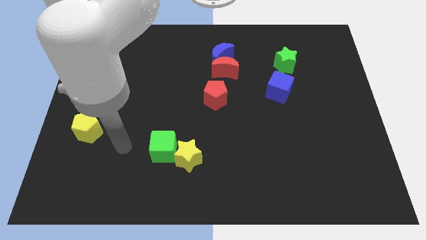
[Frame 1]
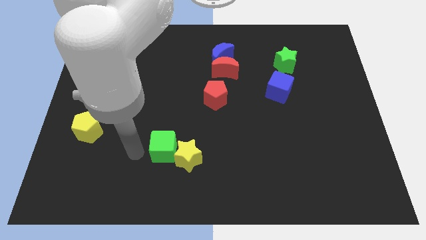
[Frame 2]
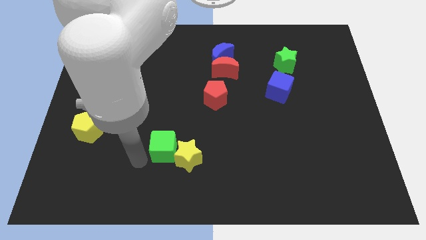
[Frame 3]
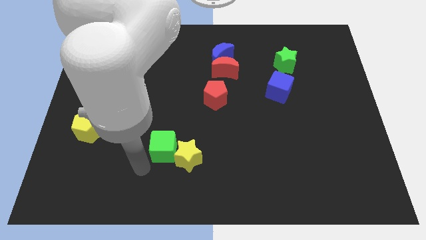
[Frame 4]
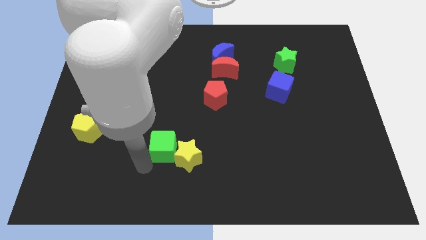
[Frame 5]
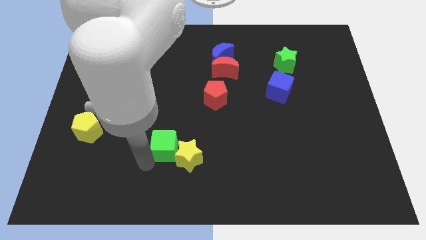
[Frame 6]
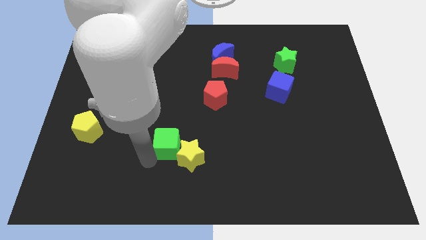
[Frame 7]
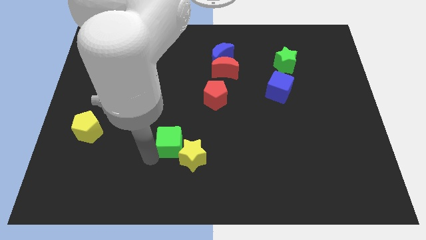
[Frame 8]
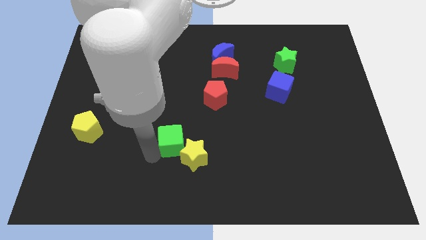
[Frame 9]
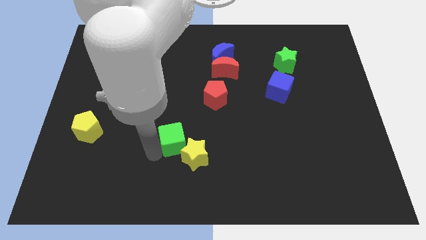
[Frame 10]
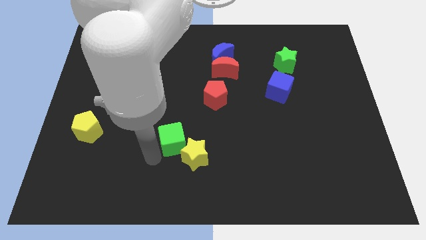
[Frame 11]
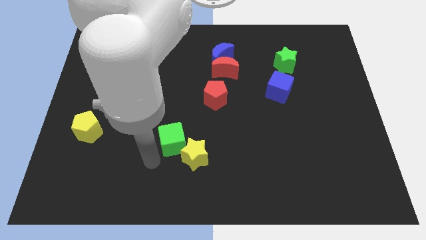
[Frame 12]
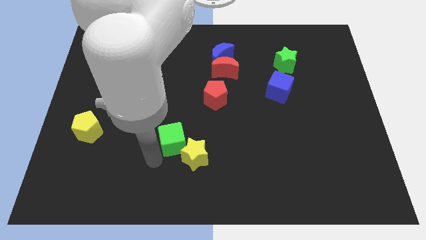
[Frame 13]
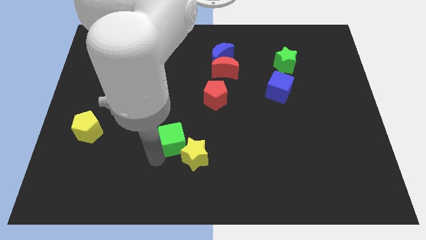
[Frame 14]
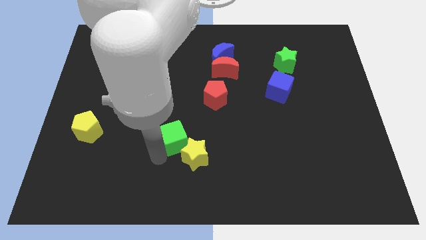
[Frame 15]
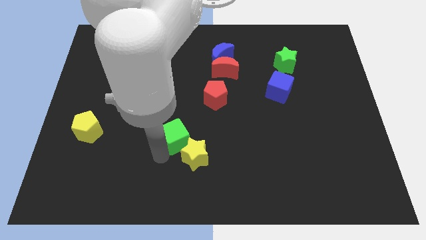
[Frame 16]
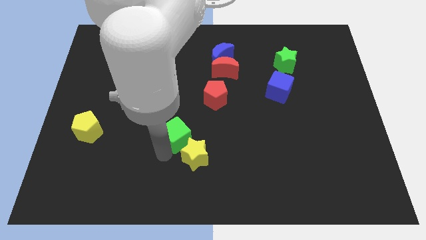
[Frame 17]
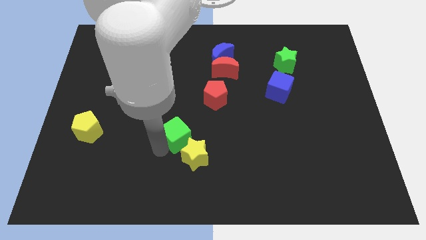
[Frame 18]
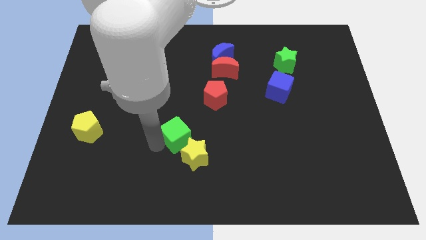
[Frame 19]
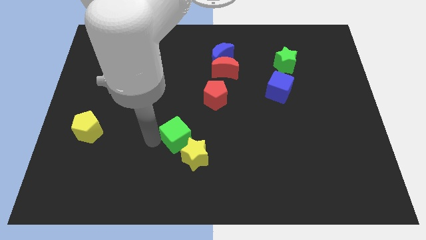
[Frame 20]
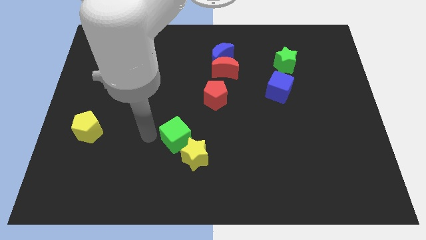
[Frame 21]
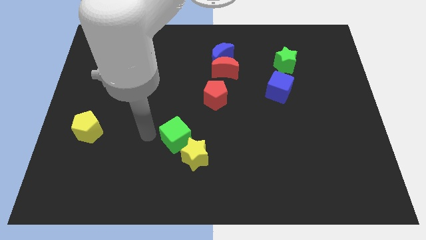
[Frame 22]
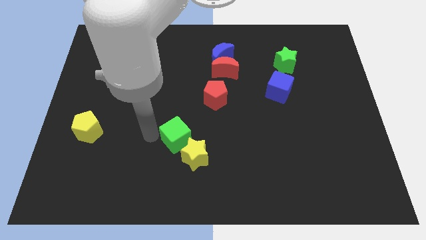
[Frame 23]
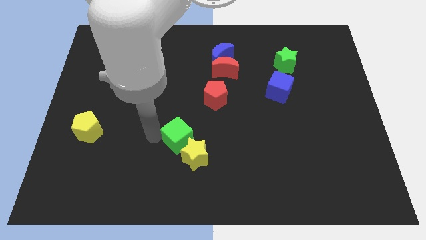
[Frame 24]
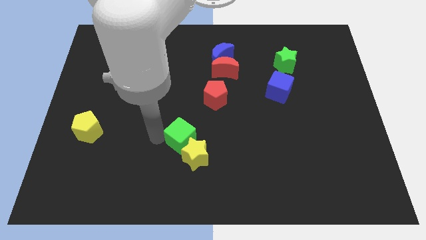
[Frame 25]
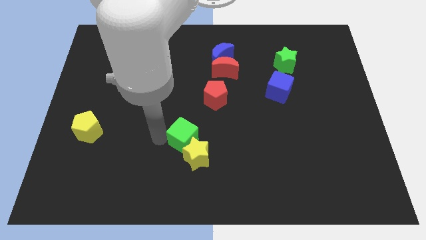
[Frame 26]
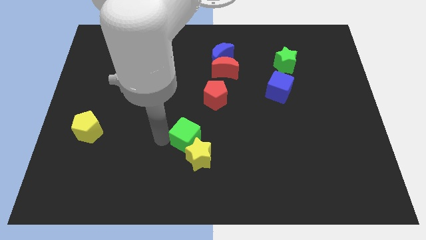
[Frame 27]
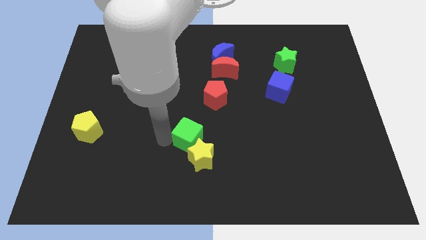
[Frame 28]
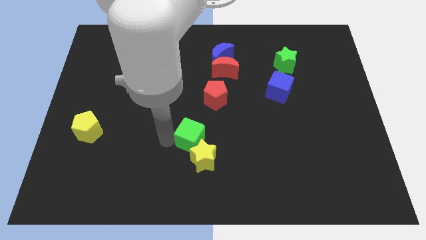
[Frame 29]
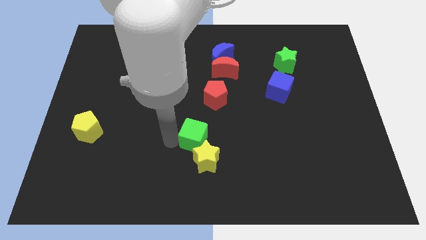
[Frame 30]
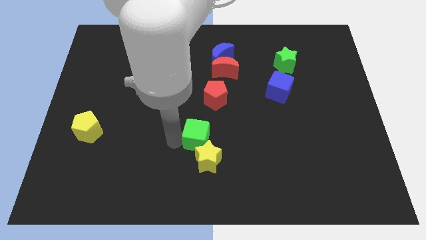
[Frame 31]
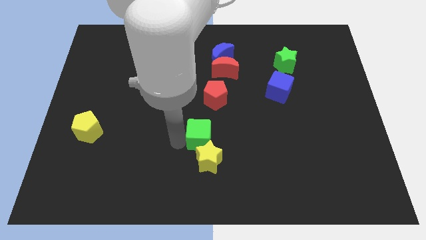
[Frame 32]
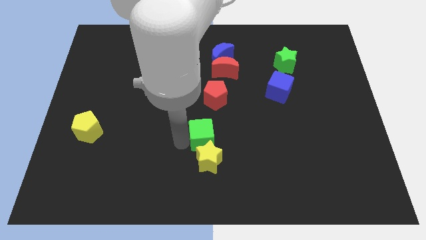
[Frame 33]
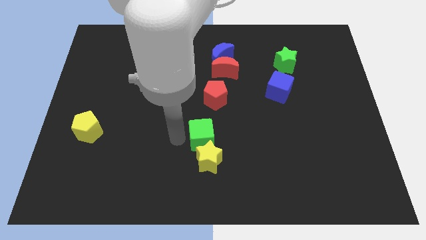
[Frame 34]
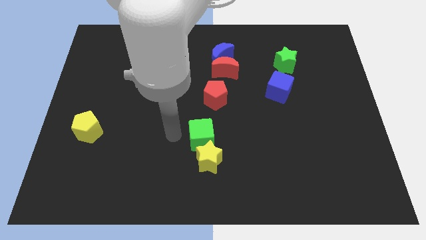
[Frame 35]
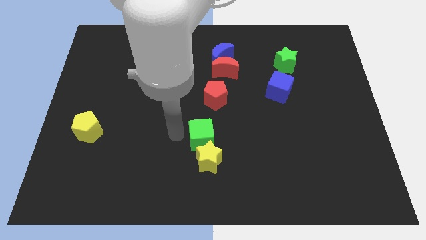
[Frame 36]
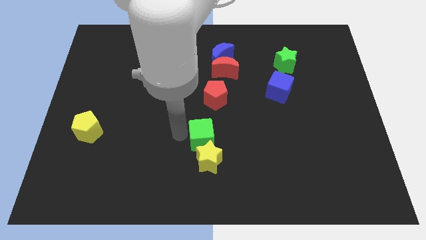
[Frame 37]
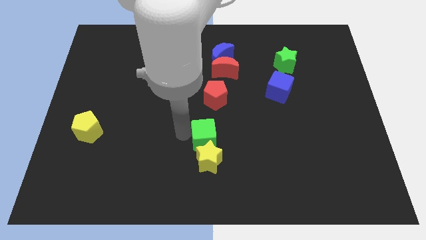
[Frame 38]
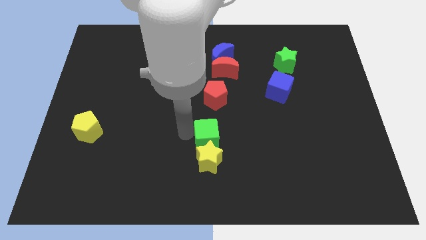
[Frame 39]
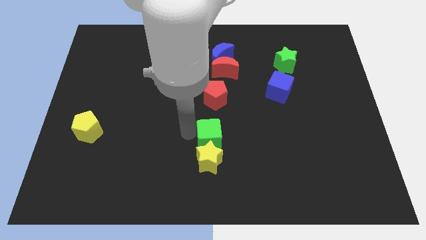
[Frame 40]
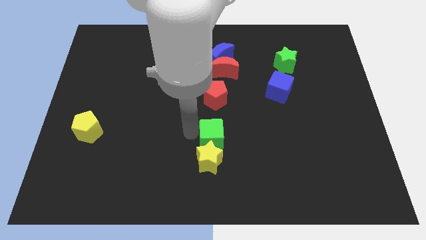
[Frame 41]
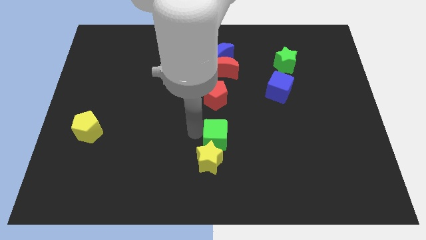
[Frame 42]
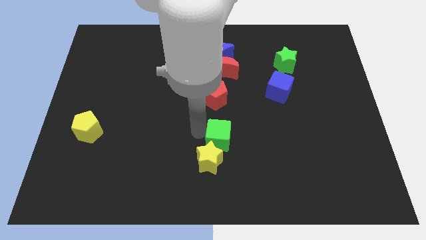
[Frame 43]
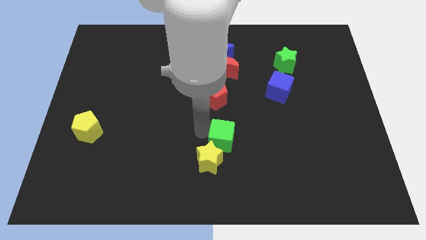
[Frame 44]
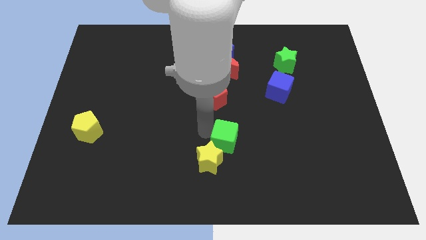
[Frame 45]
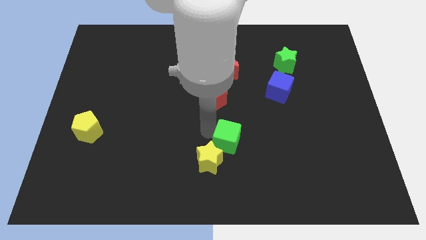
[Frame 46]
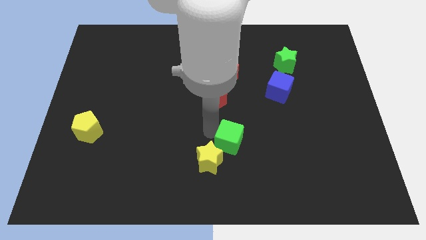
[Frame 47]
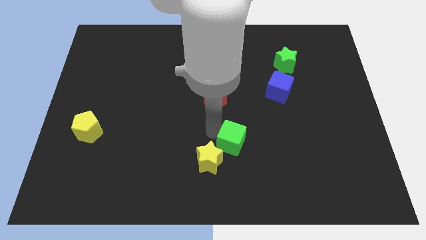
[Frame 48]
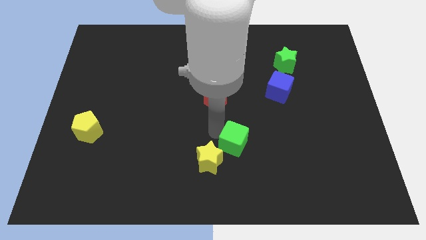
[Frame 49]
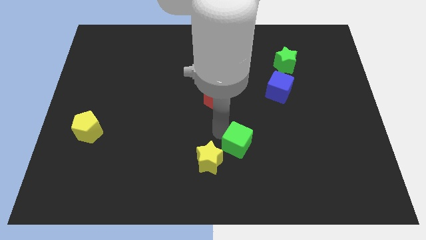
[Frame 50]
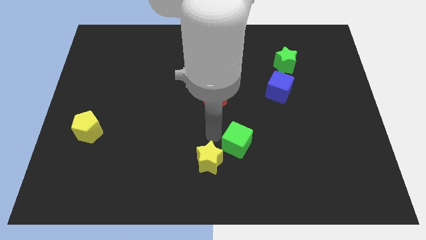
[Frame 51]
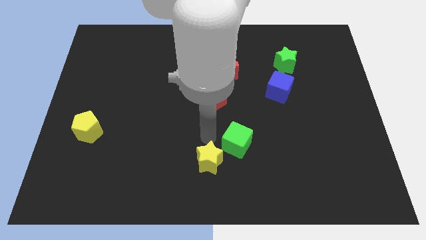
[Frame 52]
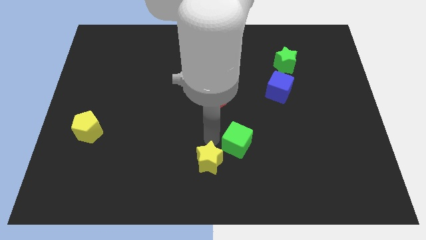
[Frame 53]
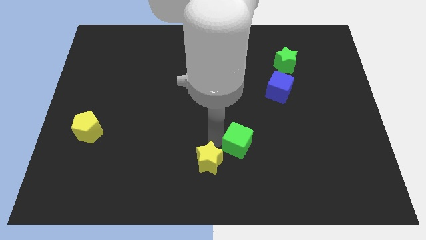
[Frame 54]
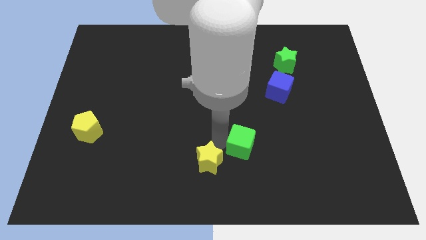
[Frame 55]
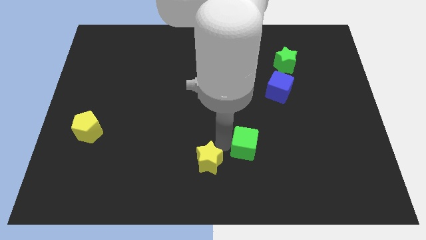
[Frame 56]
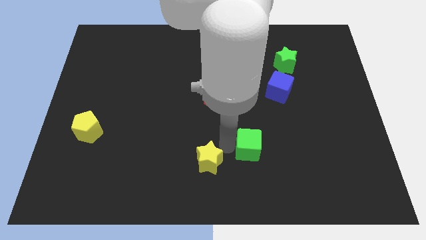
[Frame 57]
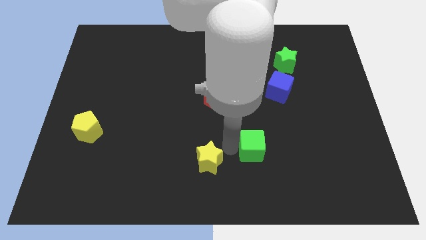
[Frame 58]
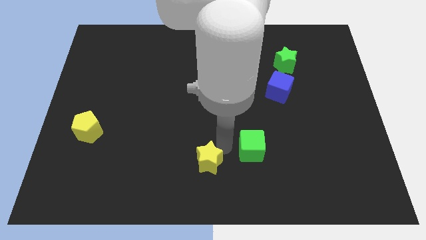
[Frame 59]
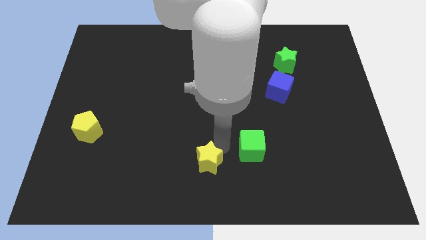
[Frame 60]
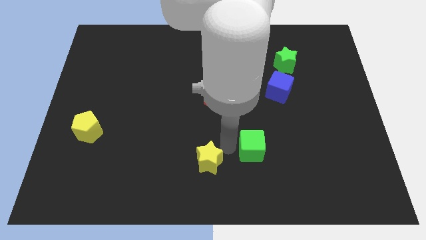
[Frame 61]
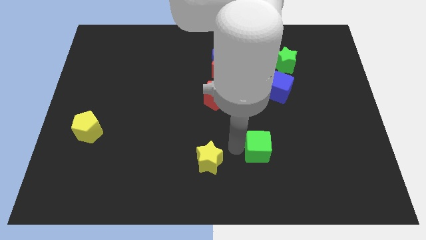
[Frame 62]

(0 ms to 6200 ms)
slide the green cube right

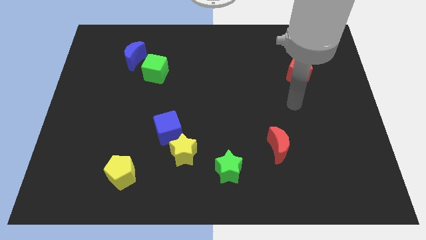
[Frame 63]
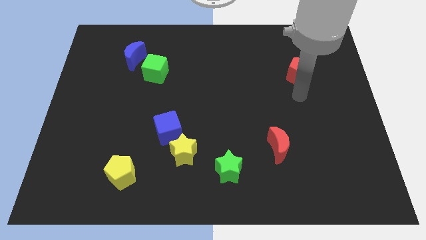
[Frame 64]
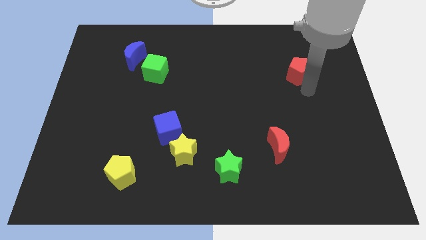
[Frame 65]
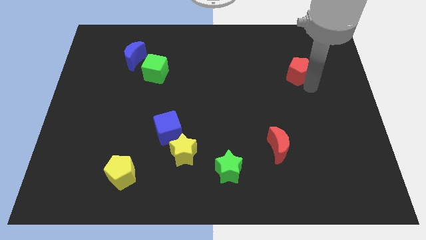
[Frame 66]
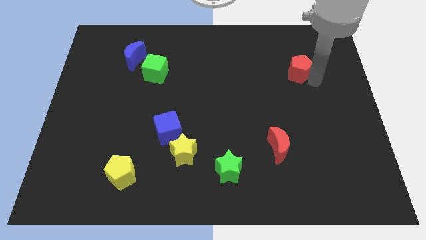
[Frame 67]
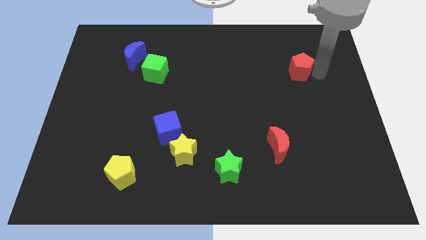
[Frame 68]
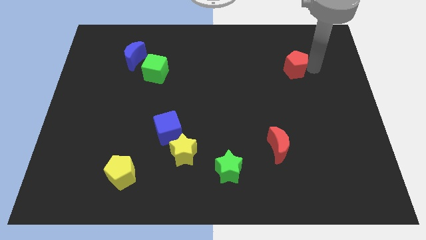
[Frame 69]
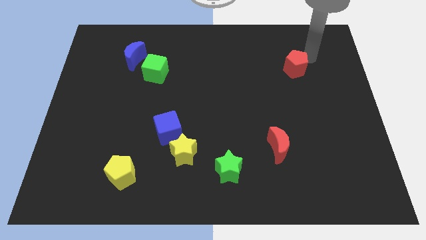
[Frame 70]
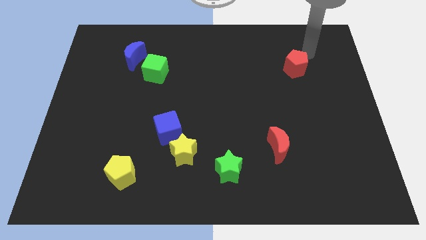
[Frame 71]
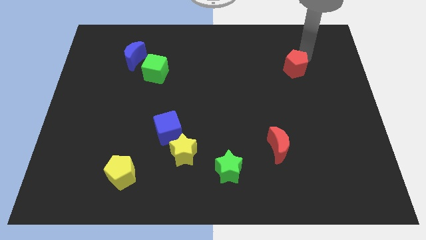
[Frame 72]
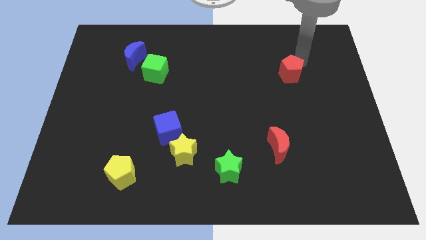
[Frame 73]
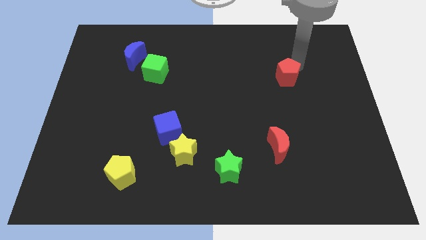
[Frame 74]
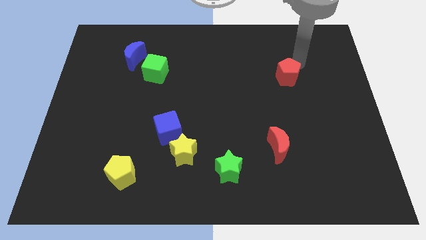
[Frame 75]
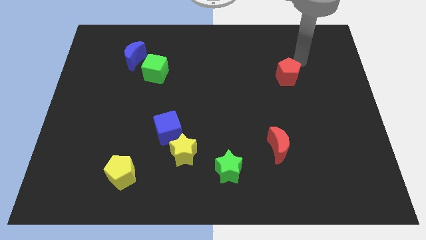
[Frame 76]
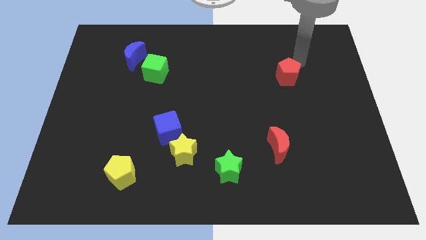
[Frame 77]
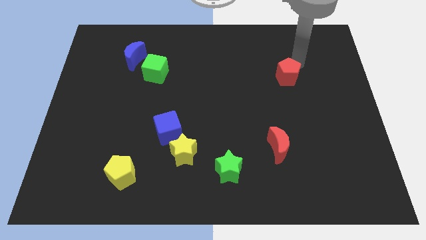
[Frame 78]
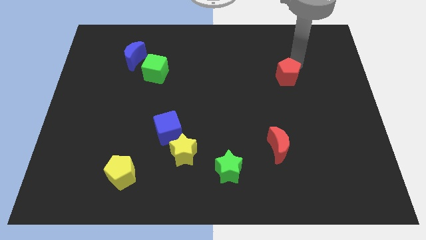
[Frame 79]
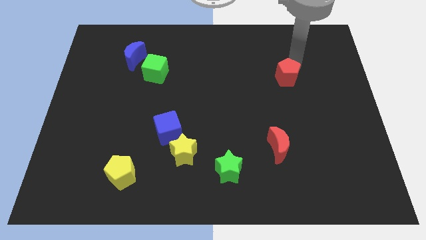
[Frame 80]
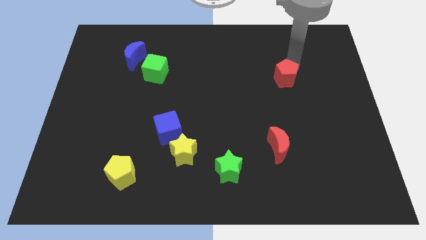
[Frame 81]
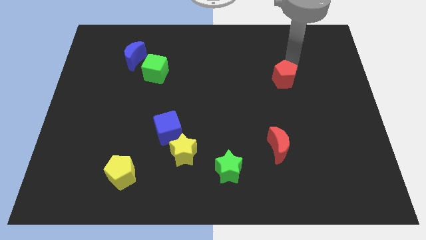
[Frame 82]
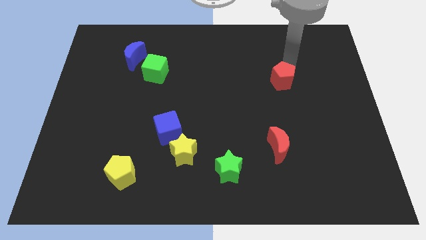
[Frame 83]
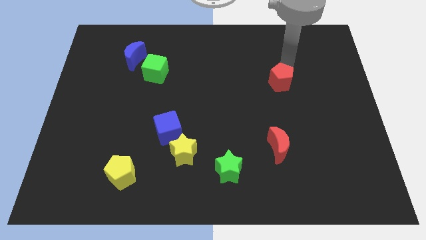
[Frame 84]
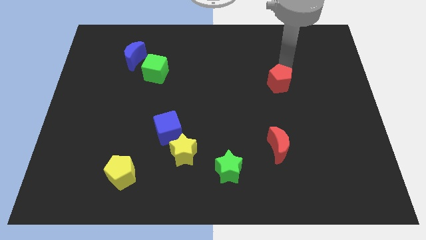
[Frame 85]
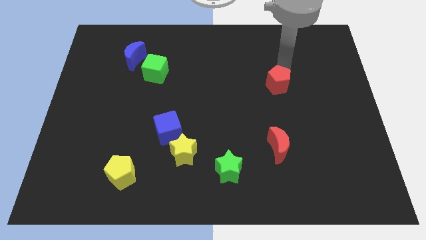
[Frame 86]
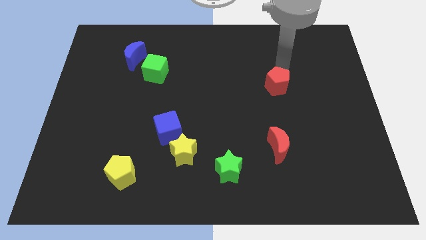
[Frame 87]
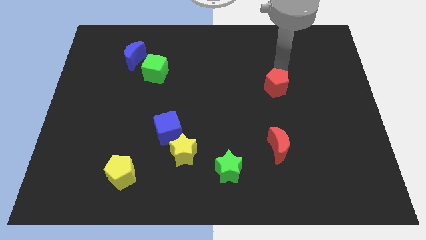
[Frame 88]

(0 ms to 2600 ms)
slightly slide the red pentagon downwards and left
